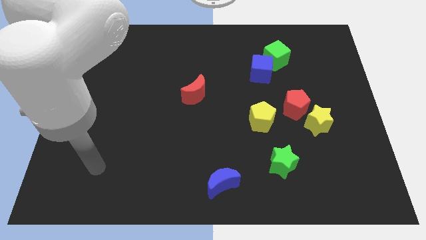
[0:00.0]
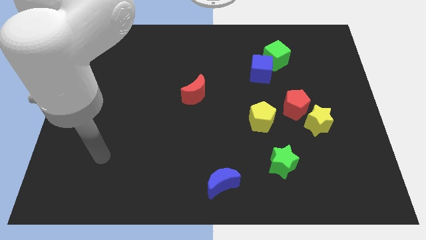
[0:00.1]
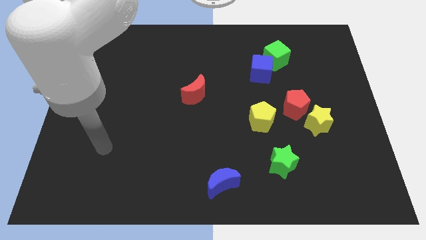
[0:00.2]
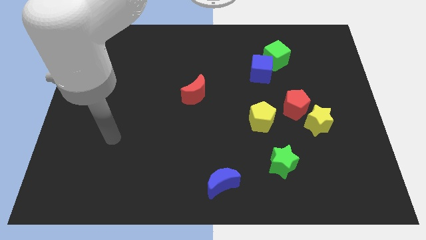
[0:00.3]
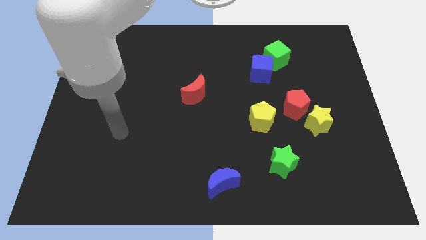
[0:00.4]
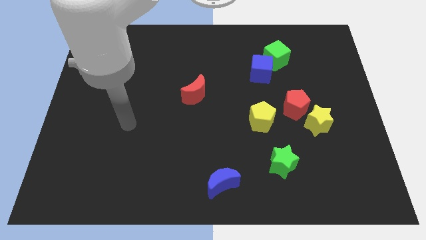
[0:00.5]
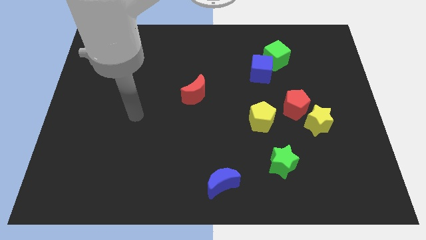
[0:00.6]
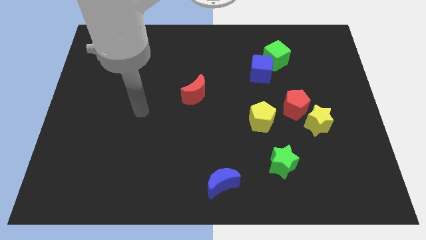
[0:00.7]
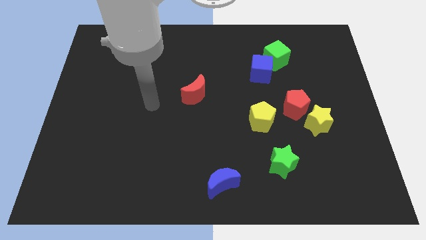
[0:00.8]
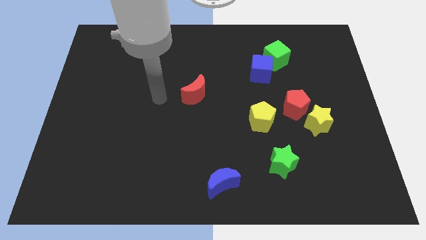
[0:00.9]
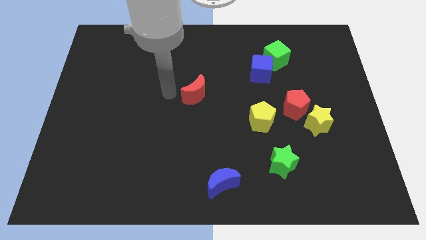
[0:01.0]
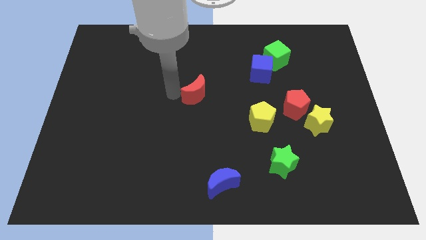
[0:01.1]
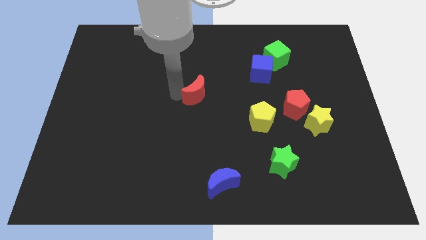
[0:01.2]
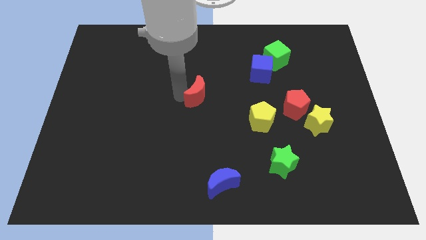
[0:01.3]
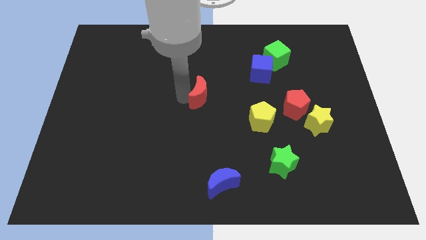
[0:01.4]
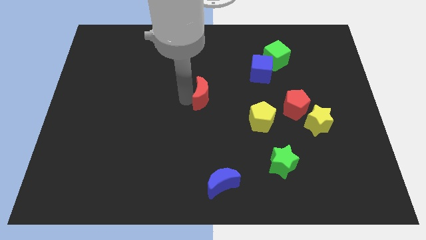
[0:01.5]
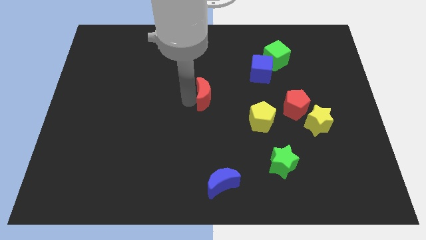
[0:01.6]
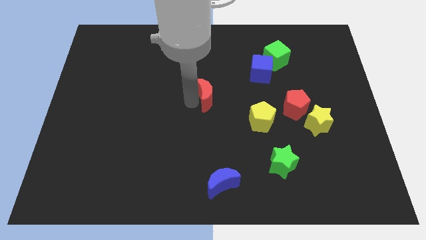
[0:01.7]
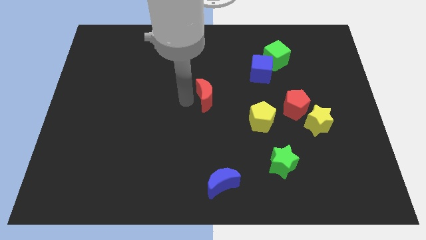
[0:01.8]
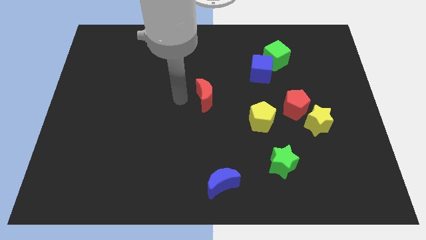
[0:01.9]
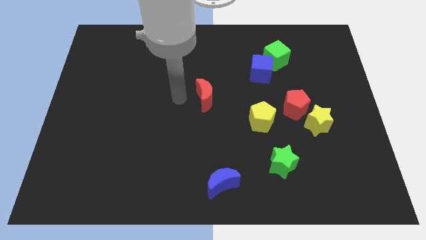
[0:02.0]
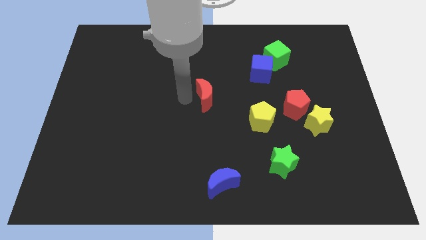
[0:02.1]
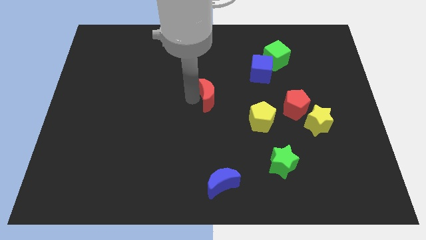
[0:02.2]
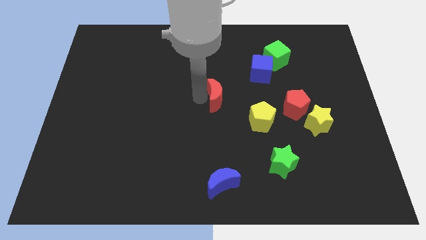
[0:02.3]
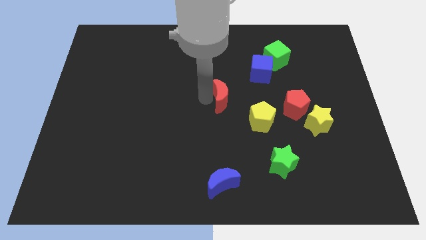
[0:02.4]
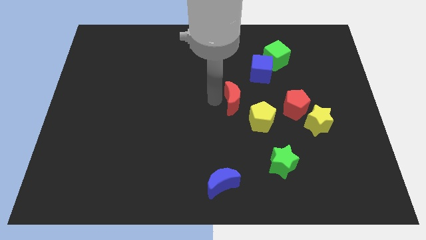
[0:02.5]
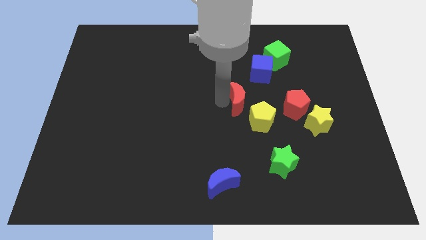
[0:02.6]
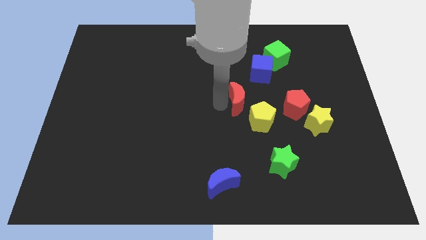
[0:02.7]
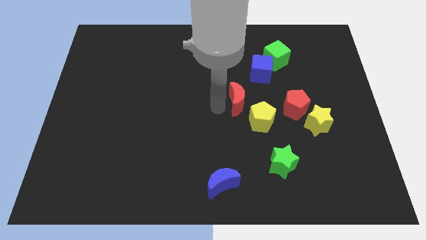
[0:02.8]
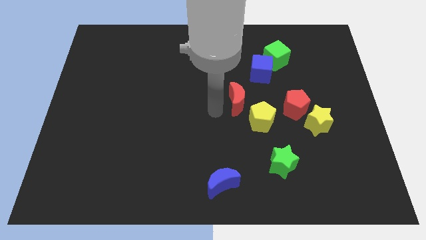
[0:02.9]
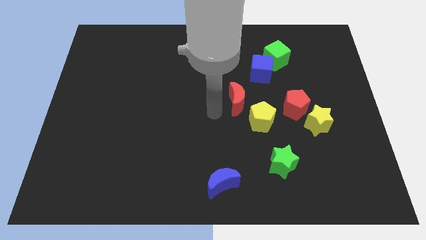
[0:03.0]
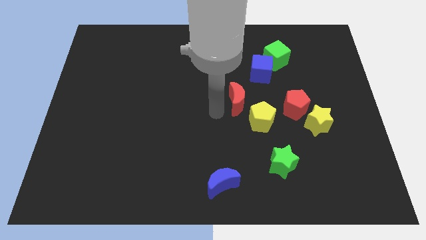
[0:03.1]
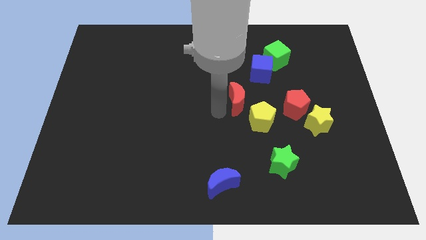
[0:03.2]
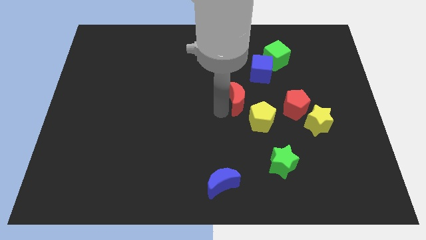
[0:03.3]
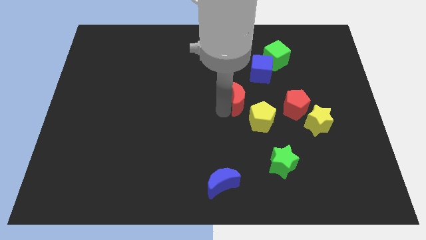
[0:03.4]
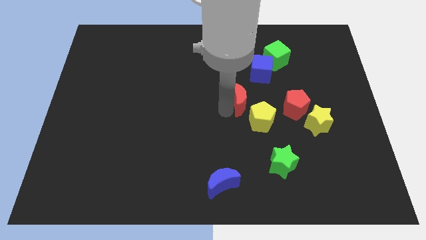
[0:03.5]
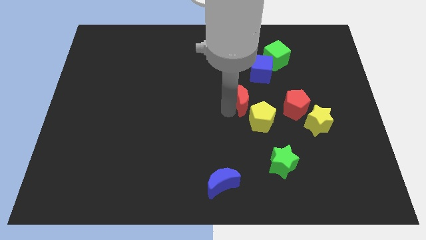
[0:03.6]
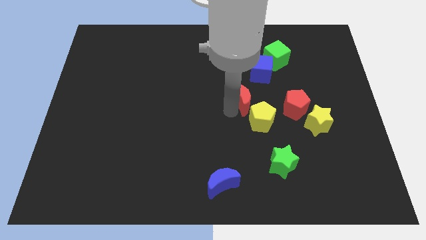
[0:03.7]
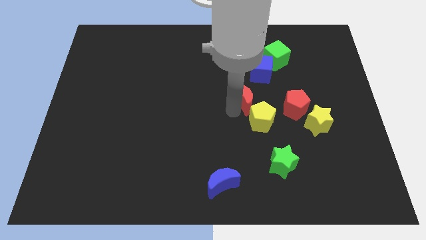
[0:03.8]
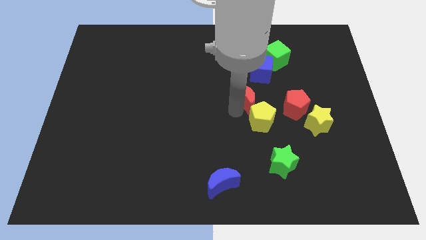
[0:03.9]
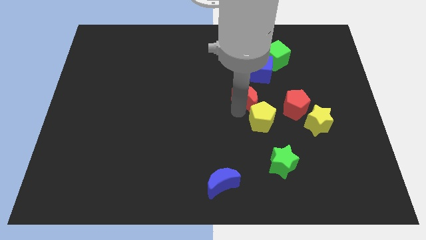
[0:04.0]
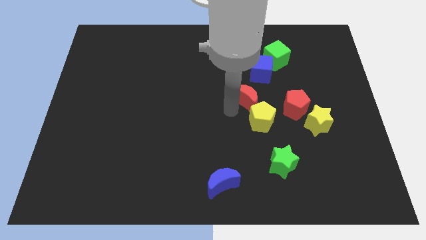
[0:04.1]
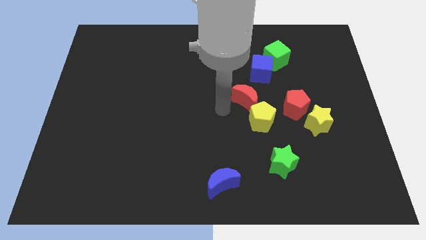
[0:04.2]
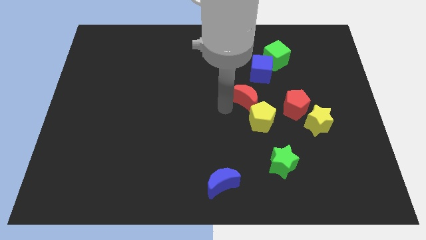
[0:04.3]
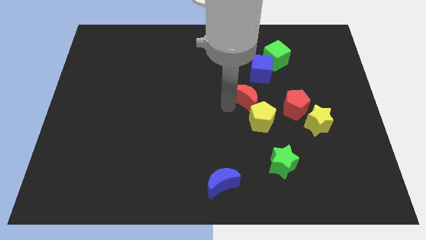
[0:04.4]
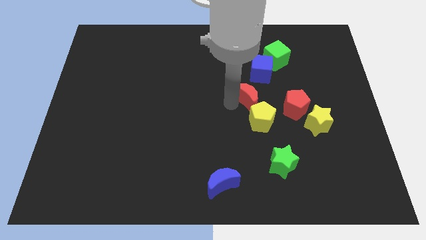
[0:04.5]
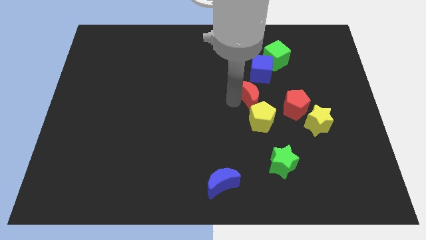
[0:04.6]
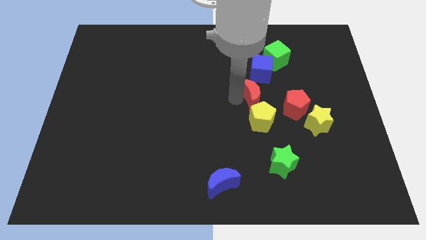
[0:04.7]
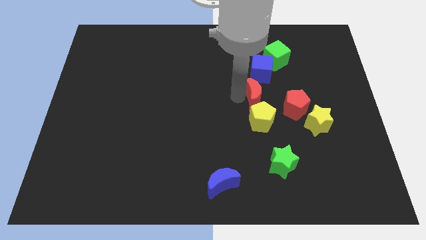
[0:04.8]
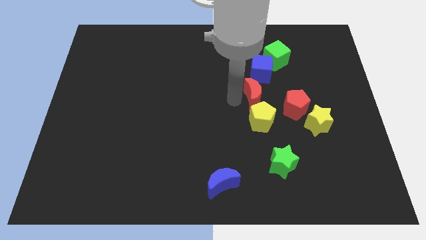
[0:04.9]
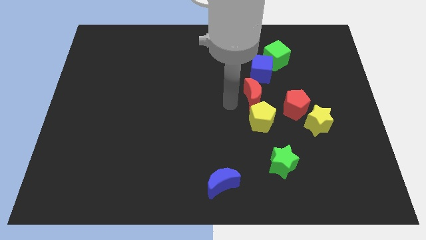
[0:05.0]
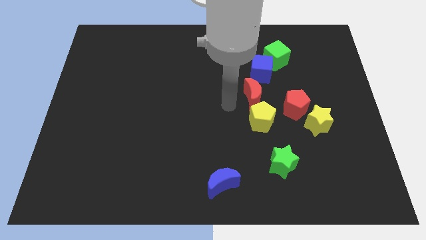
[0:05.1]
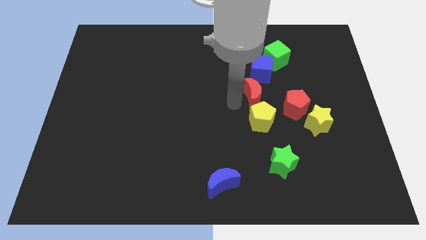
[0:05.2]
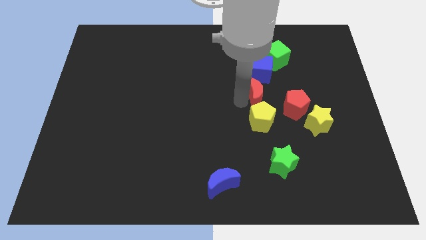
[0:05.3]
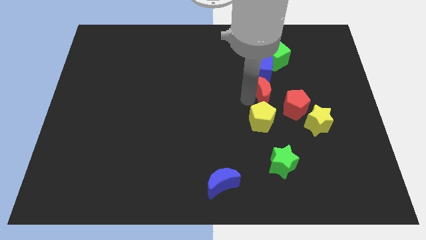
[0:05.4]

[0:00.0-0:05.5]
put the red moon to the bottom of the green cube

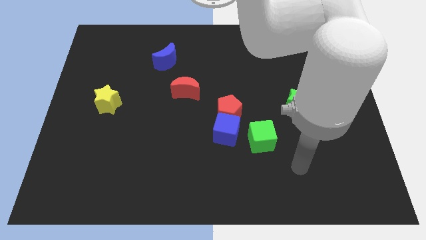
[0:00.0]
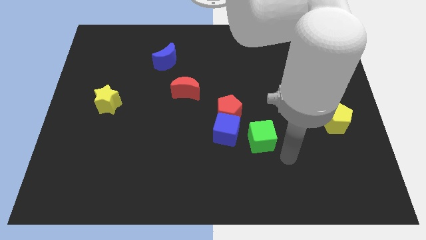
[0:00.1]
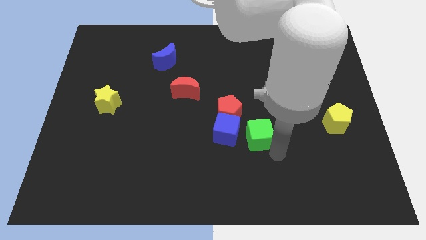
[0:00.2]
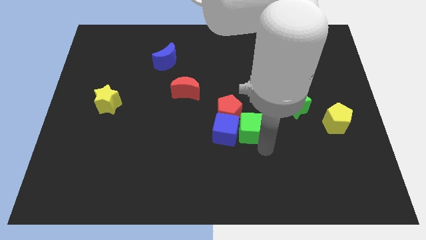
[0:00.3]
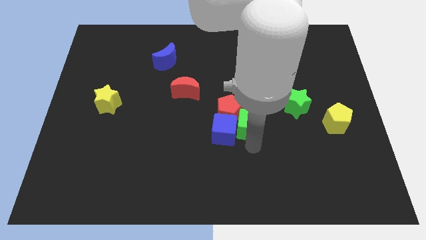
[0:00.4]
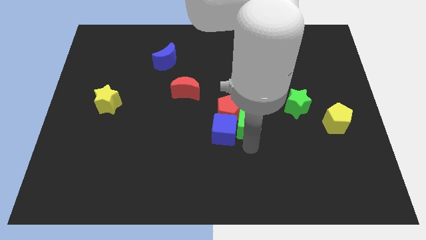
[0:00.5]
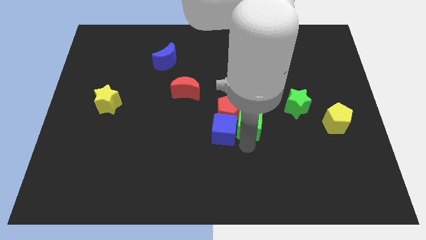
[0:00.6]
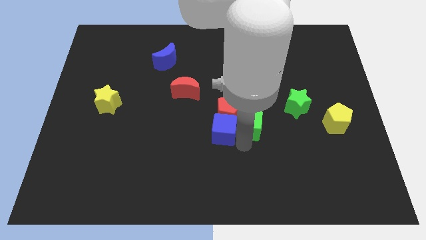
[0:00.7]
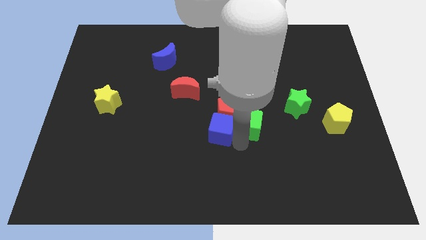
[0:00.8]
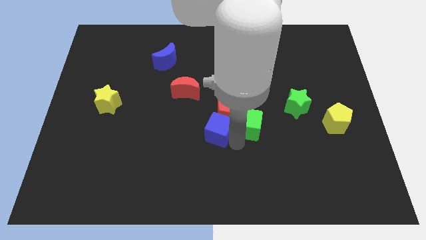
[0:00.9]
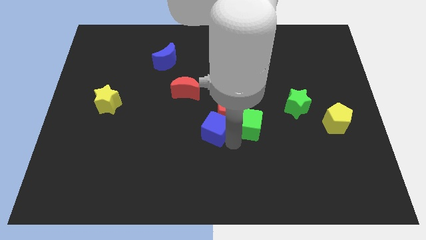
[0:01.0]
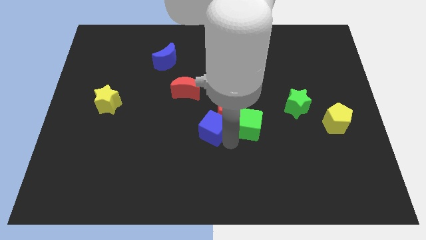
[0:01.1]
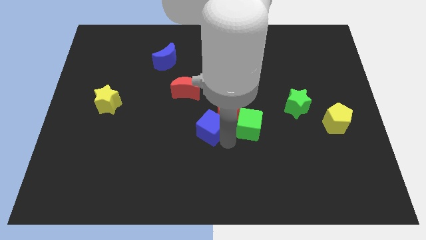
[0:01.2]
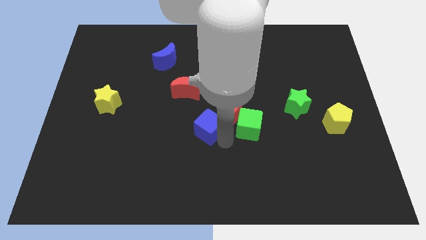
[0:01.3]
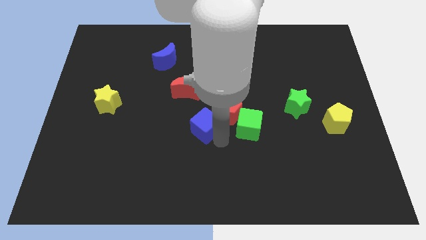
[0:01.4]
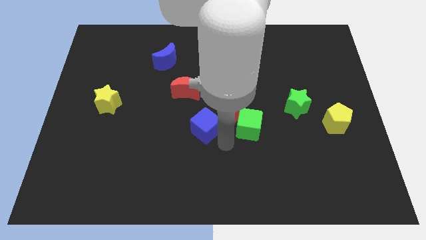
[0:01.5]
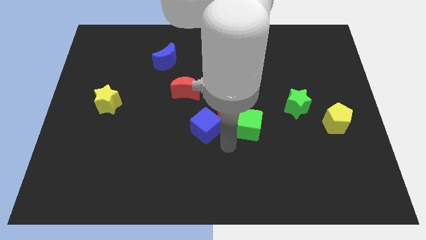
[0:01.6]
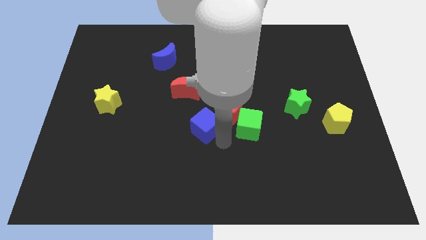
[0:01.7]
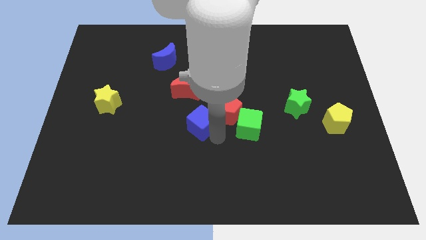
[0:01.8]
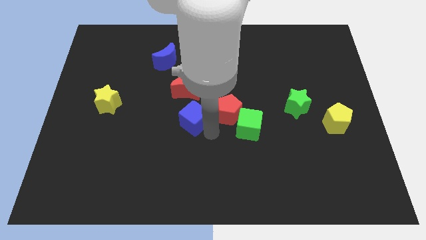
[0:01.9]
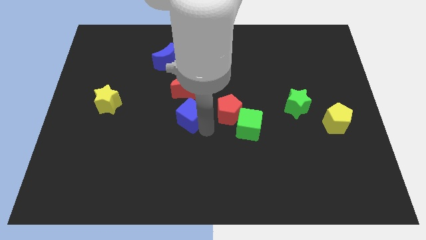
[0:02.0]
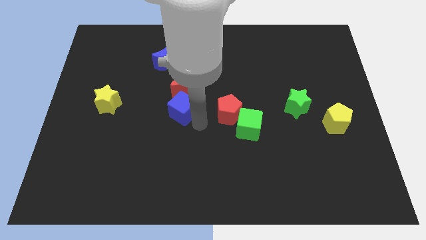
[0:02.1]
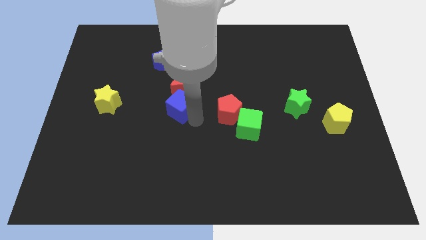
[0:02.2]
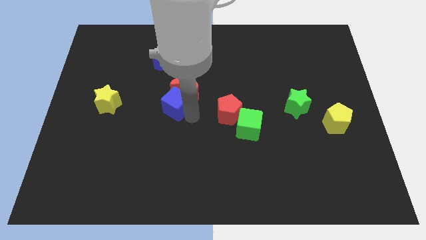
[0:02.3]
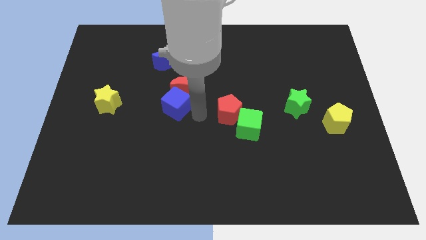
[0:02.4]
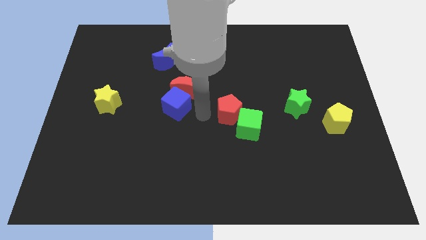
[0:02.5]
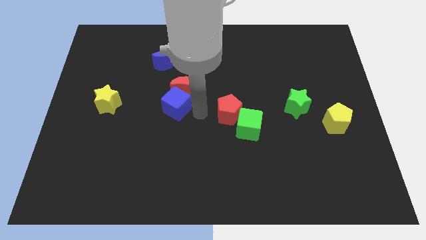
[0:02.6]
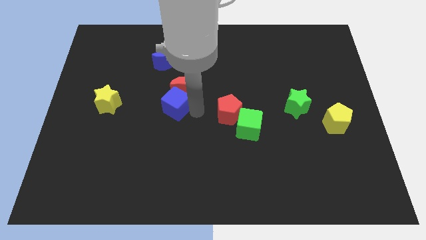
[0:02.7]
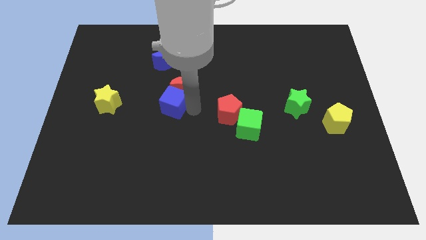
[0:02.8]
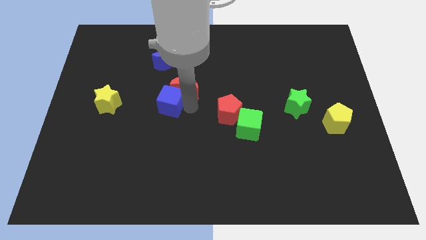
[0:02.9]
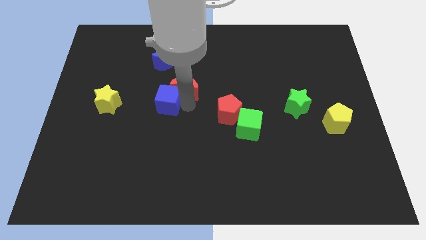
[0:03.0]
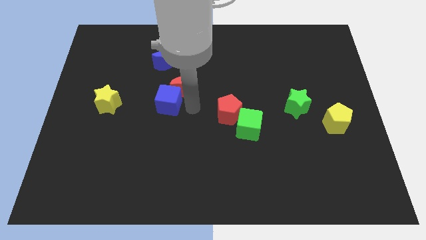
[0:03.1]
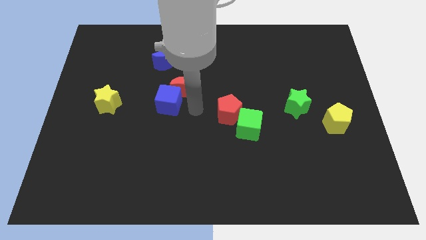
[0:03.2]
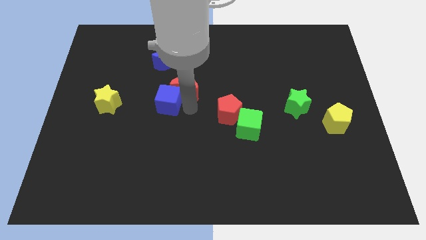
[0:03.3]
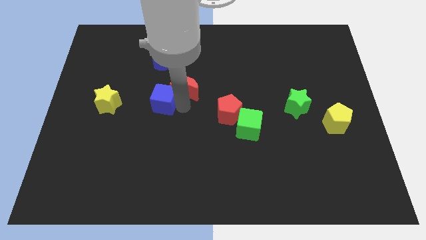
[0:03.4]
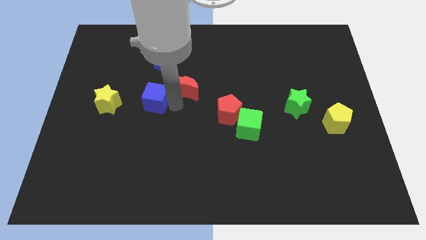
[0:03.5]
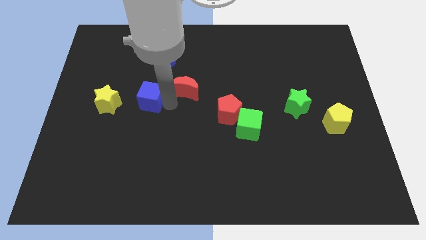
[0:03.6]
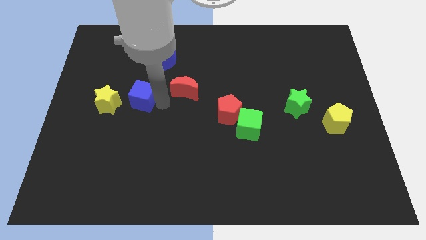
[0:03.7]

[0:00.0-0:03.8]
put the blue cube to the top right of the yellow star
